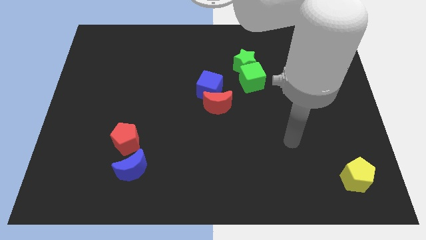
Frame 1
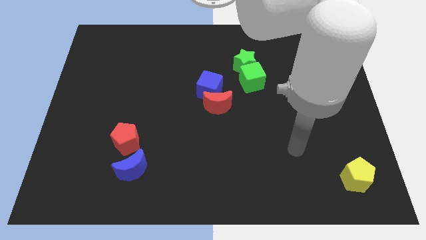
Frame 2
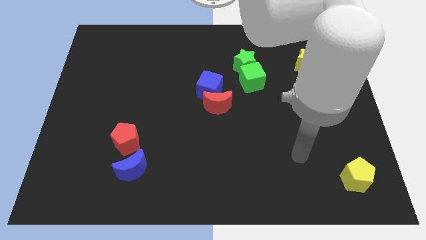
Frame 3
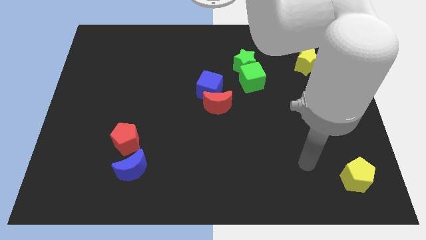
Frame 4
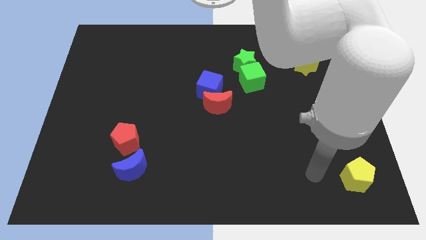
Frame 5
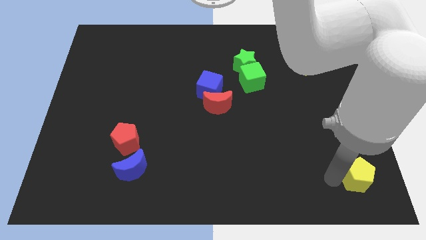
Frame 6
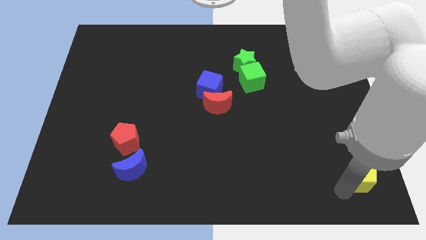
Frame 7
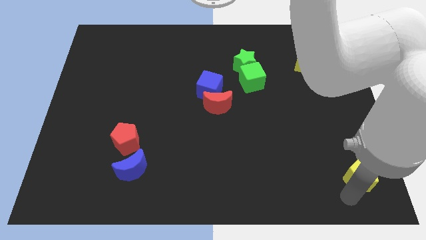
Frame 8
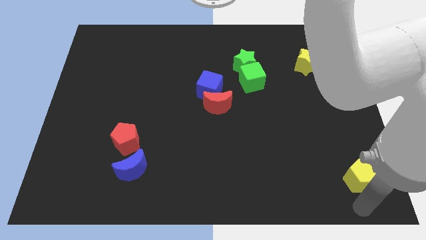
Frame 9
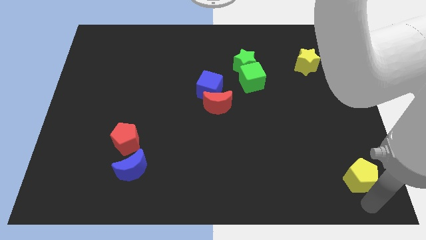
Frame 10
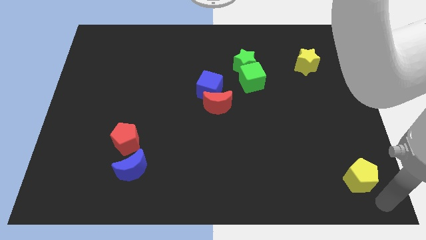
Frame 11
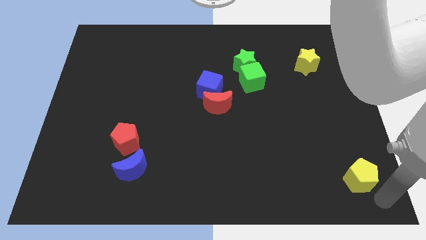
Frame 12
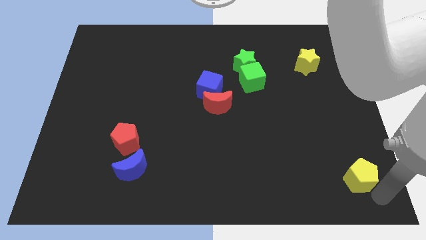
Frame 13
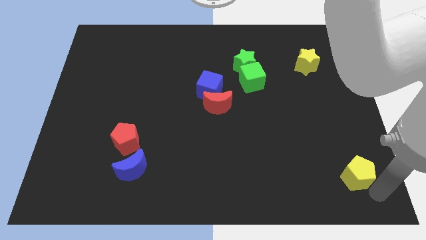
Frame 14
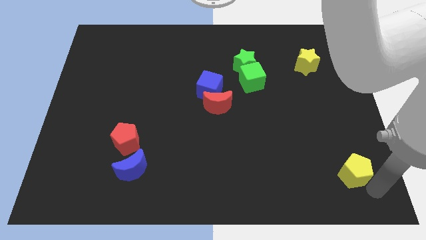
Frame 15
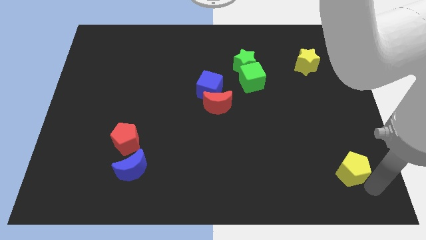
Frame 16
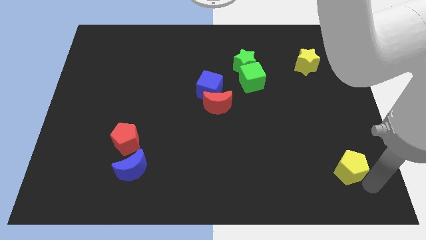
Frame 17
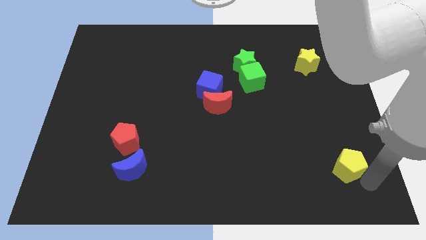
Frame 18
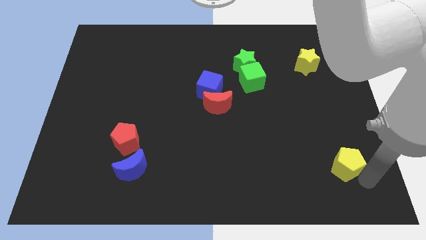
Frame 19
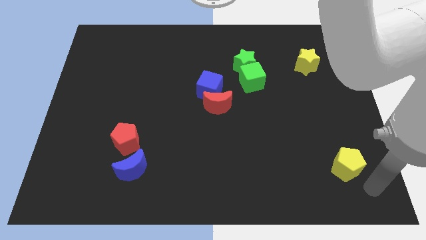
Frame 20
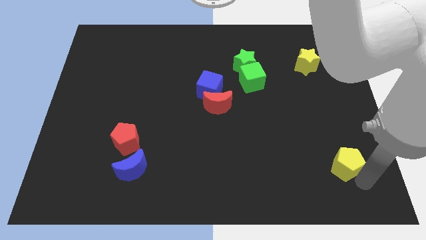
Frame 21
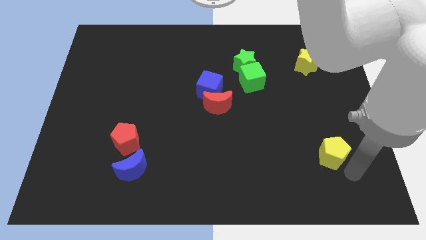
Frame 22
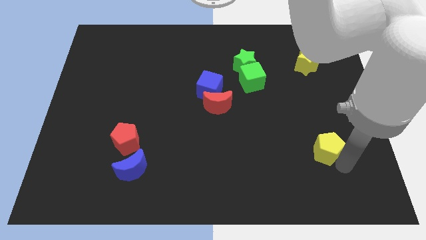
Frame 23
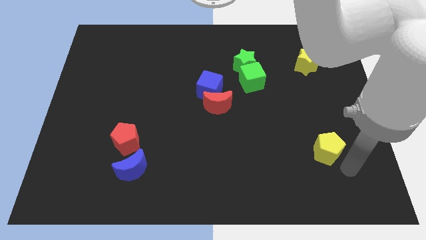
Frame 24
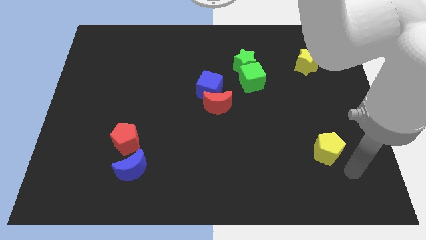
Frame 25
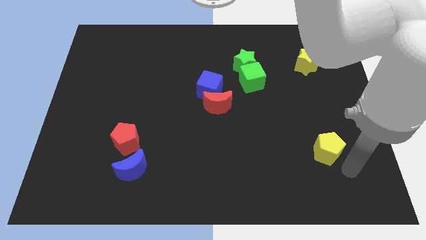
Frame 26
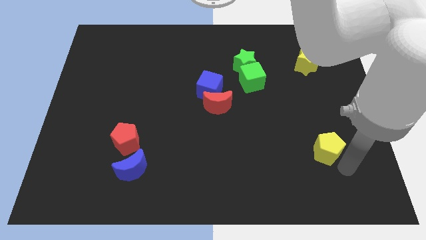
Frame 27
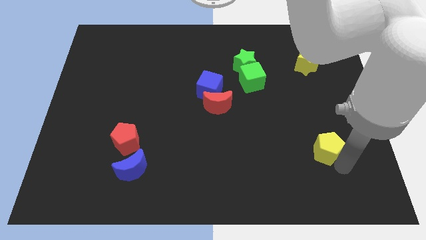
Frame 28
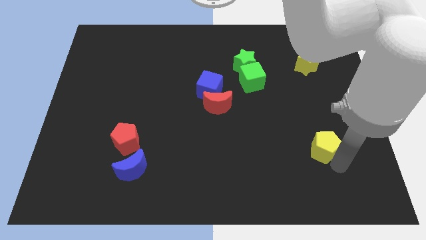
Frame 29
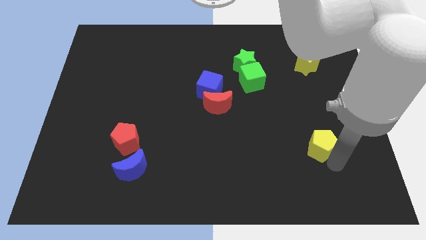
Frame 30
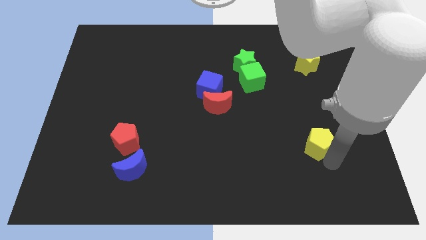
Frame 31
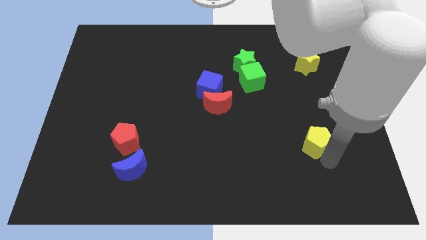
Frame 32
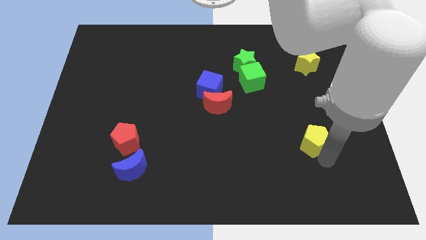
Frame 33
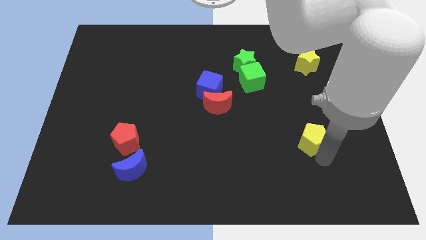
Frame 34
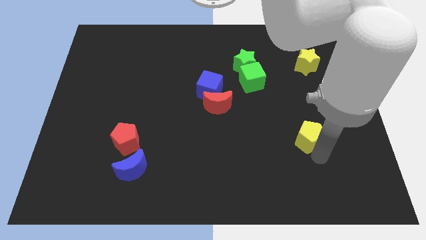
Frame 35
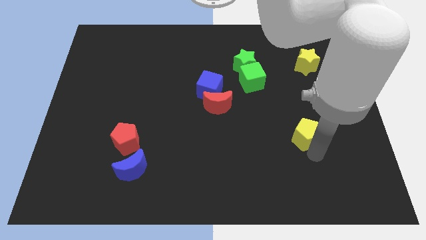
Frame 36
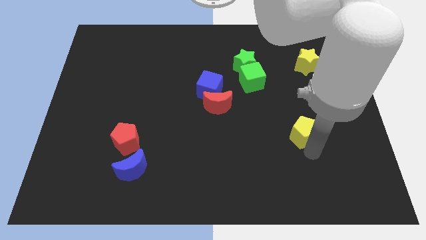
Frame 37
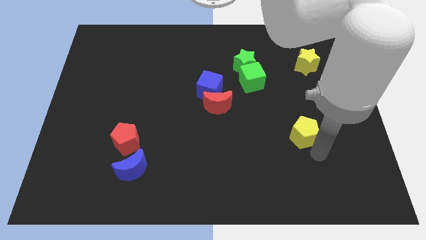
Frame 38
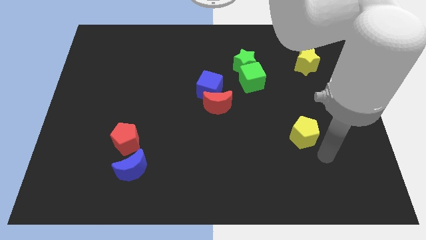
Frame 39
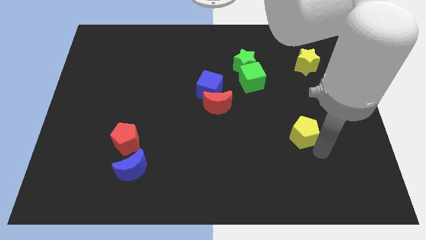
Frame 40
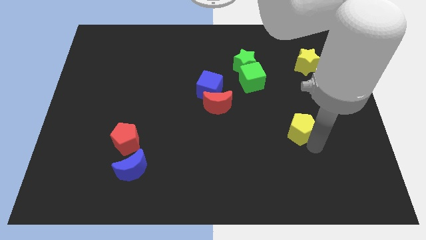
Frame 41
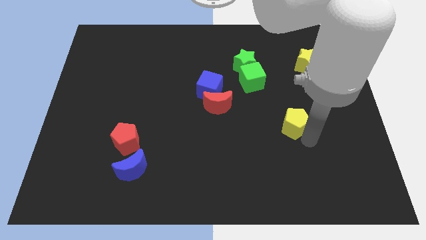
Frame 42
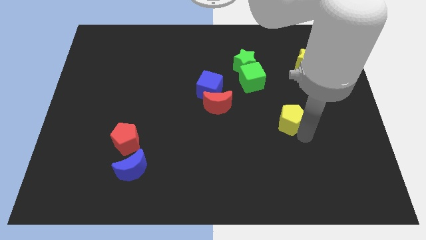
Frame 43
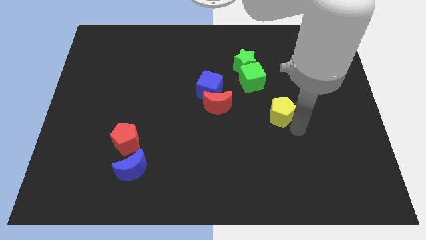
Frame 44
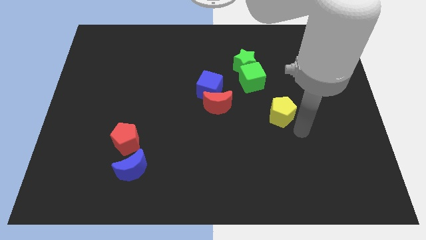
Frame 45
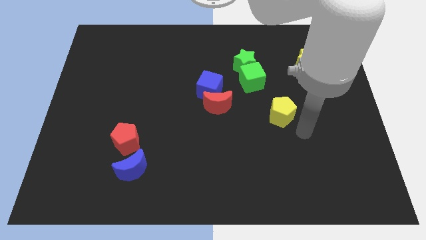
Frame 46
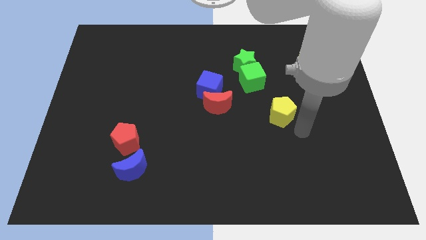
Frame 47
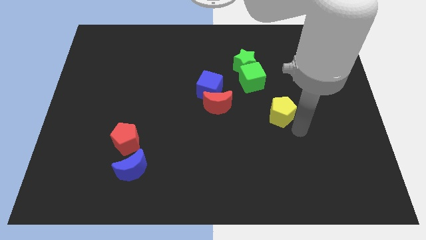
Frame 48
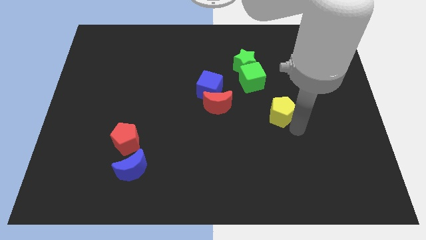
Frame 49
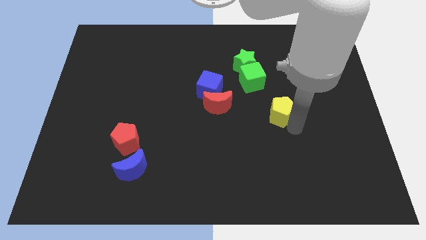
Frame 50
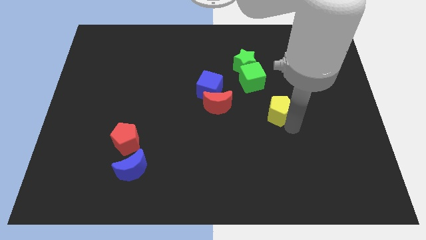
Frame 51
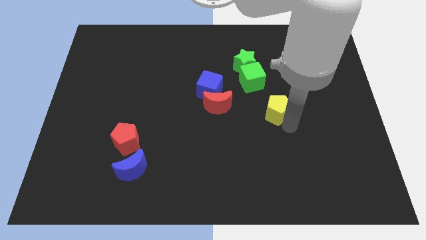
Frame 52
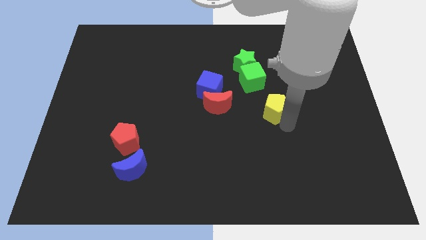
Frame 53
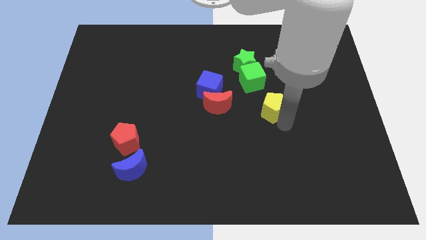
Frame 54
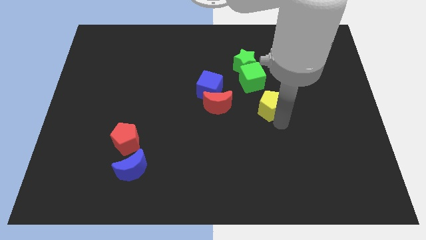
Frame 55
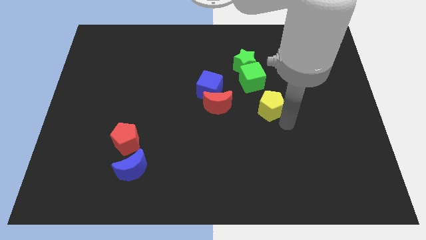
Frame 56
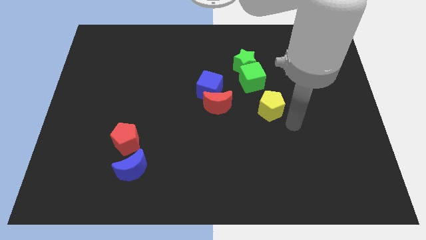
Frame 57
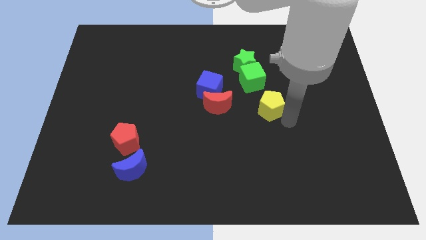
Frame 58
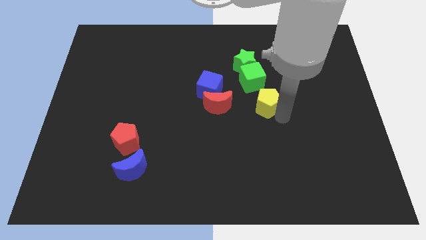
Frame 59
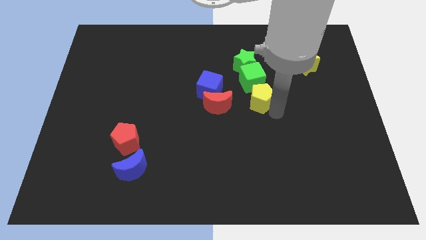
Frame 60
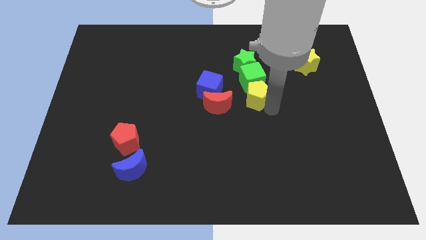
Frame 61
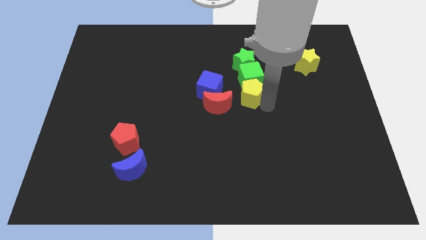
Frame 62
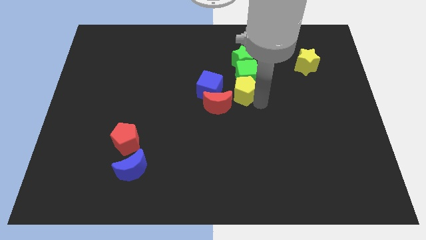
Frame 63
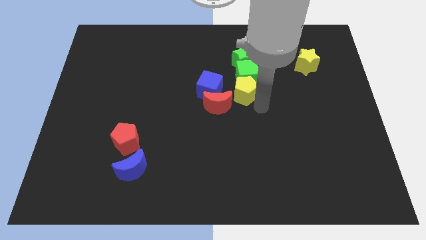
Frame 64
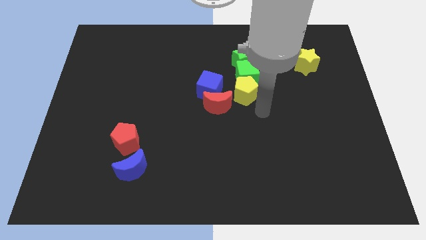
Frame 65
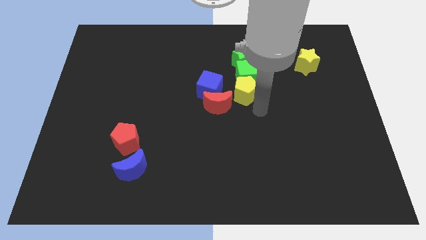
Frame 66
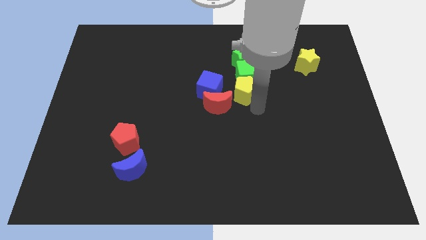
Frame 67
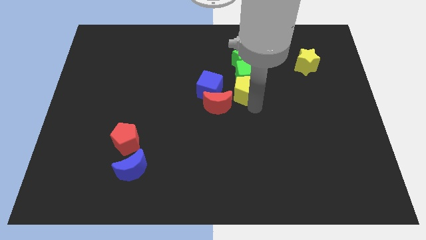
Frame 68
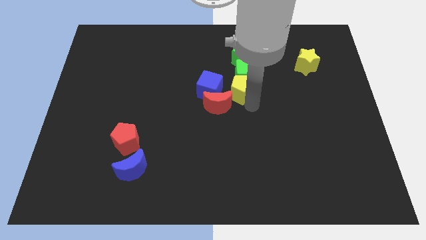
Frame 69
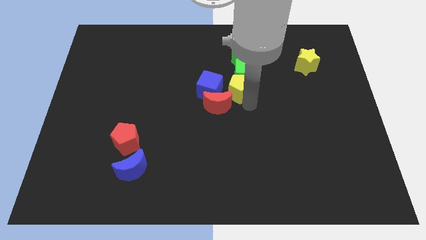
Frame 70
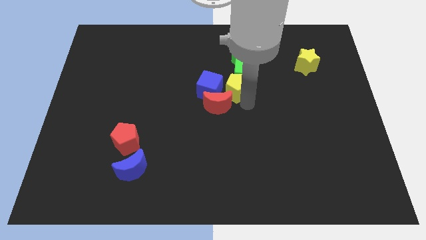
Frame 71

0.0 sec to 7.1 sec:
put the yellow pentagon to the top side of the red moon
